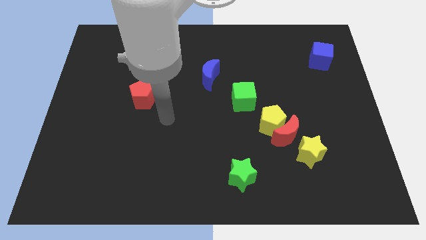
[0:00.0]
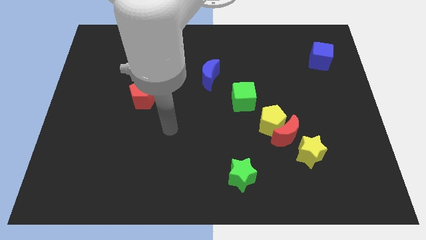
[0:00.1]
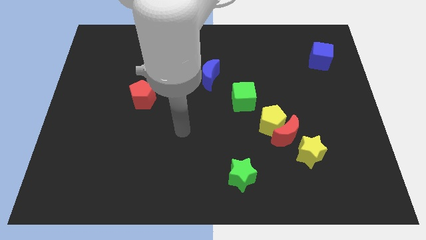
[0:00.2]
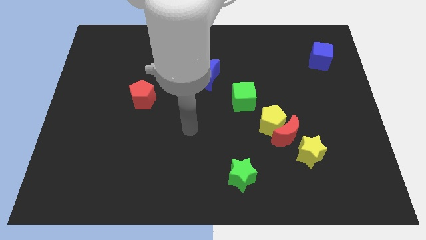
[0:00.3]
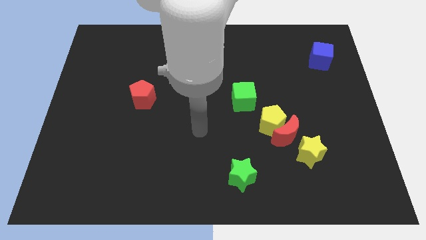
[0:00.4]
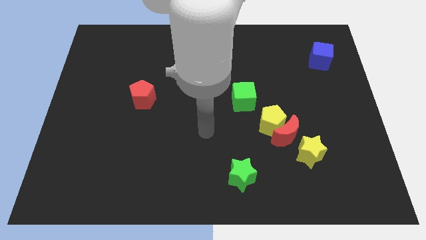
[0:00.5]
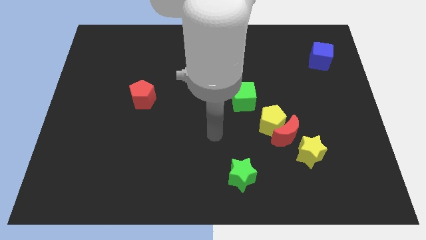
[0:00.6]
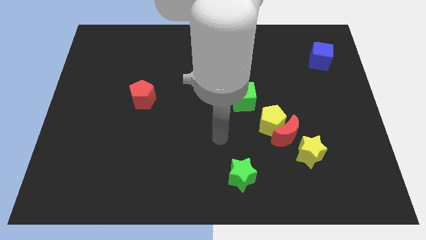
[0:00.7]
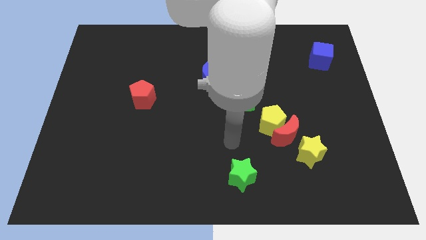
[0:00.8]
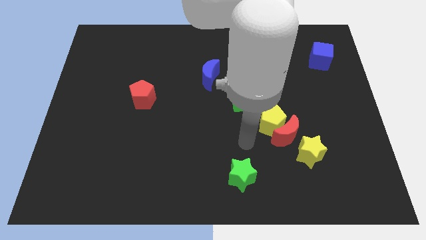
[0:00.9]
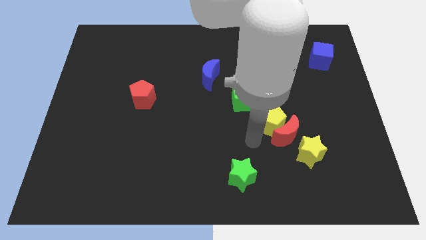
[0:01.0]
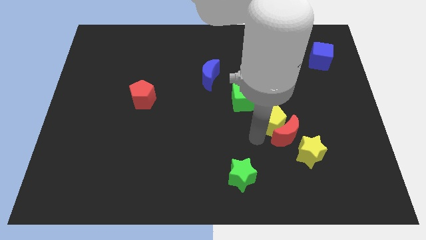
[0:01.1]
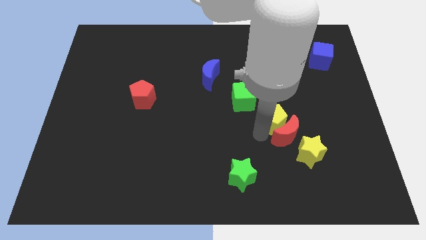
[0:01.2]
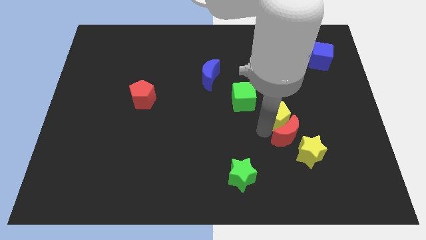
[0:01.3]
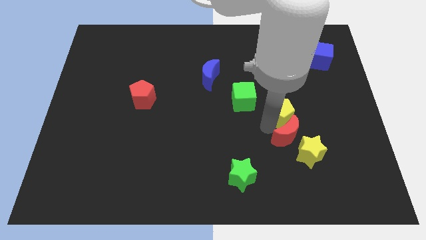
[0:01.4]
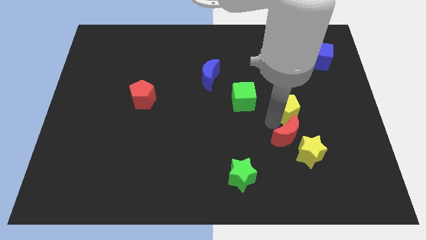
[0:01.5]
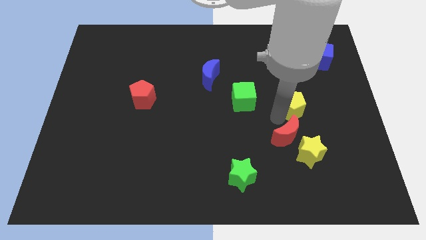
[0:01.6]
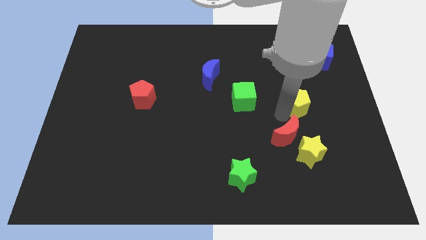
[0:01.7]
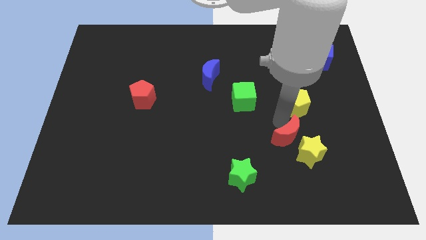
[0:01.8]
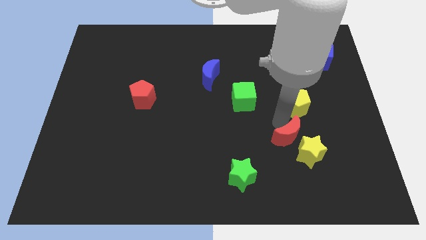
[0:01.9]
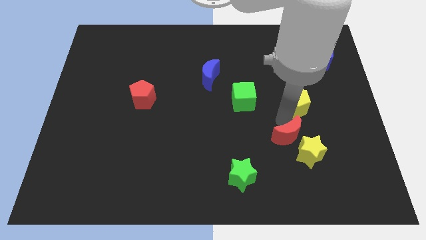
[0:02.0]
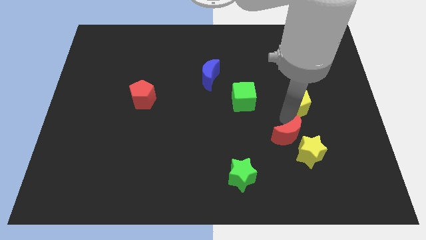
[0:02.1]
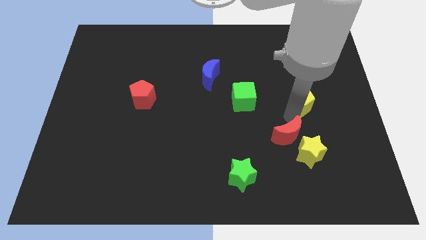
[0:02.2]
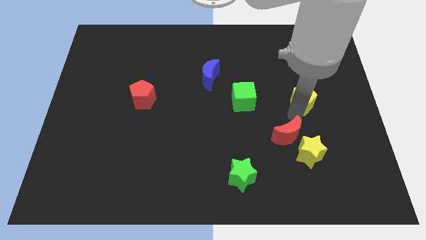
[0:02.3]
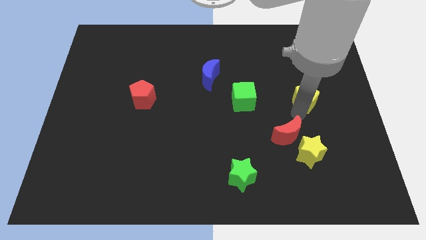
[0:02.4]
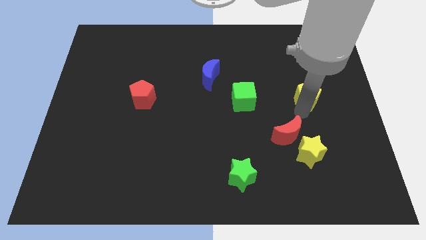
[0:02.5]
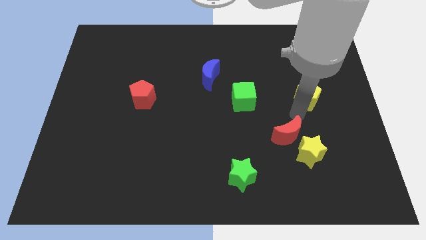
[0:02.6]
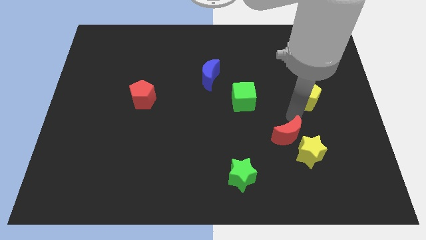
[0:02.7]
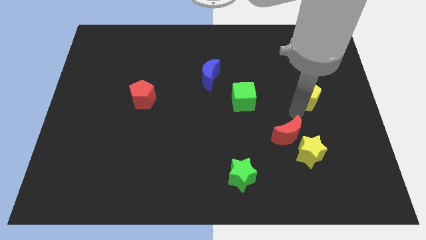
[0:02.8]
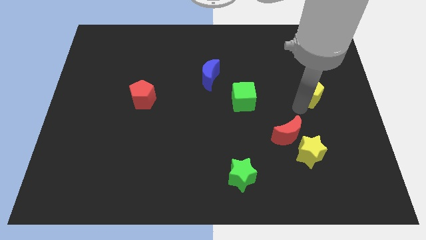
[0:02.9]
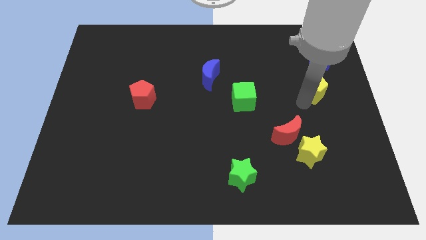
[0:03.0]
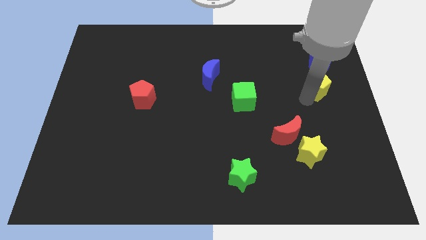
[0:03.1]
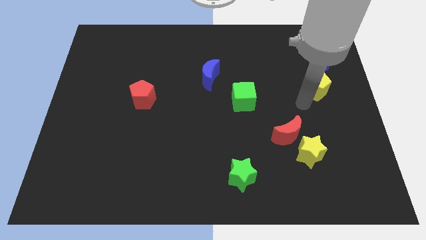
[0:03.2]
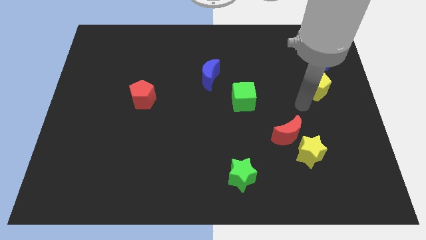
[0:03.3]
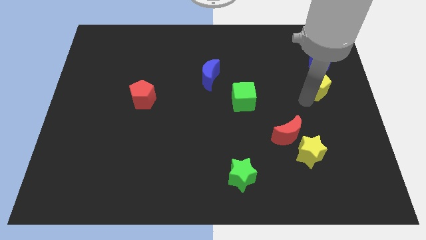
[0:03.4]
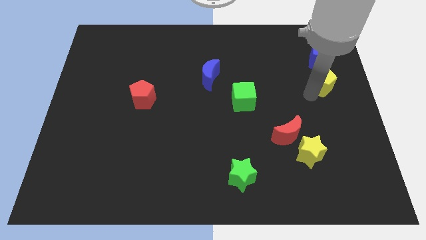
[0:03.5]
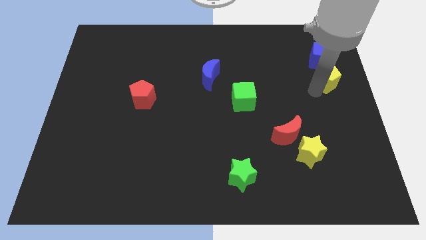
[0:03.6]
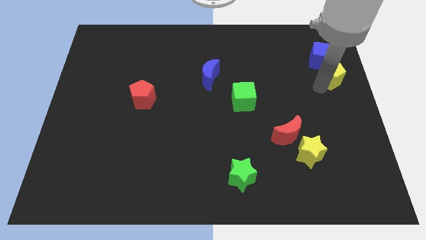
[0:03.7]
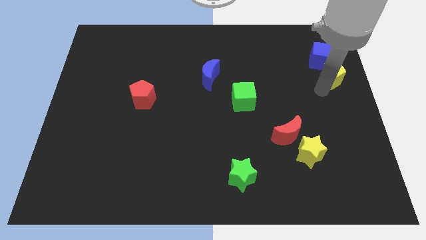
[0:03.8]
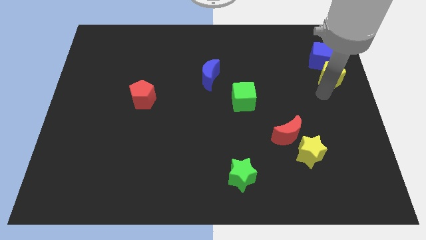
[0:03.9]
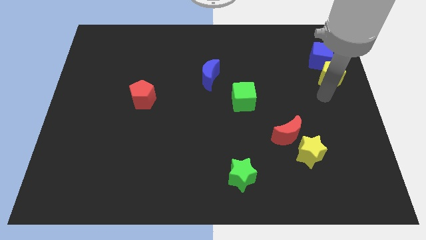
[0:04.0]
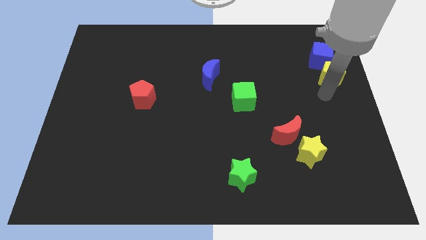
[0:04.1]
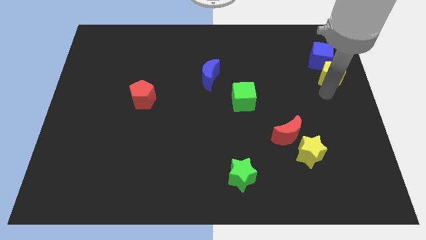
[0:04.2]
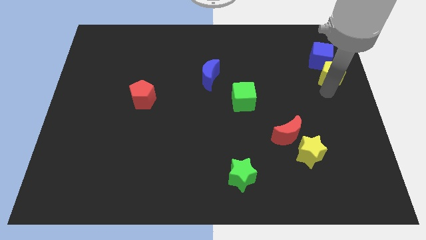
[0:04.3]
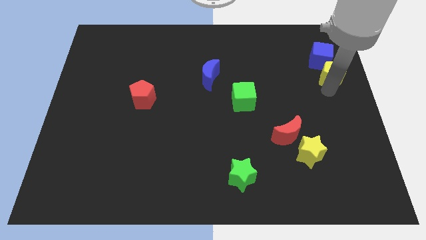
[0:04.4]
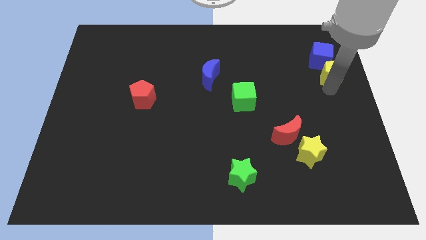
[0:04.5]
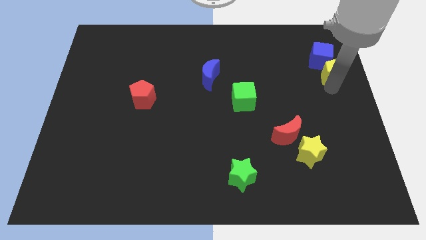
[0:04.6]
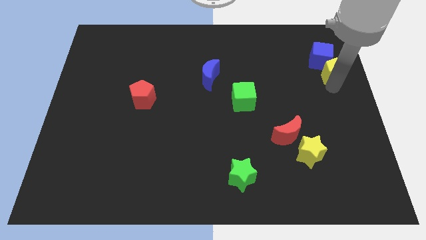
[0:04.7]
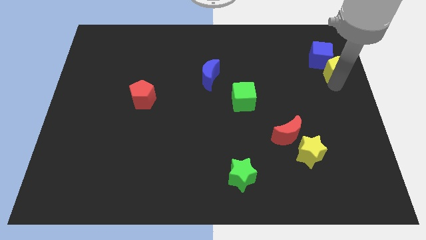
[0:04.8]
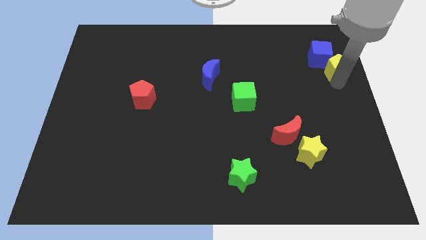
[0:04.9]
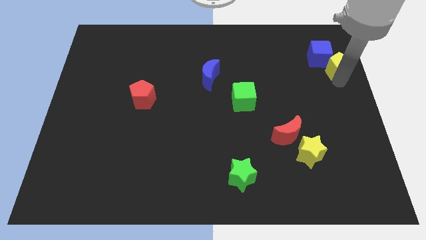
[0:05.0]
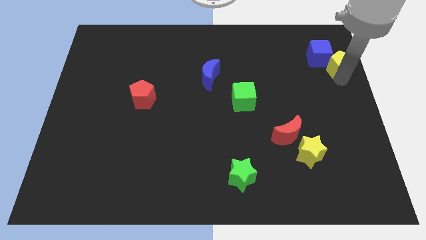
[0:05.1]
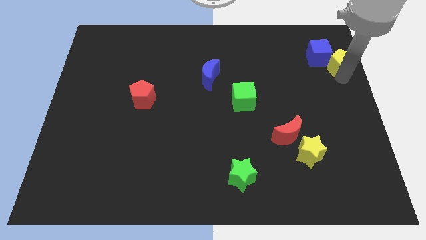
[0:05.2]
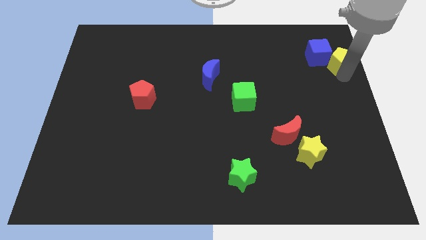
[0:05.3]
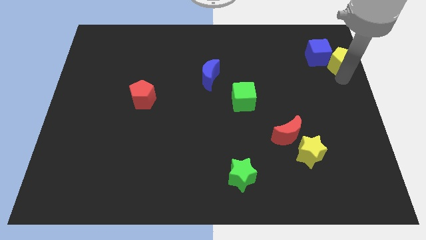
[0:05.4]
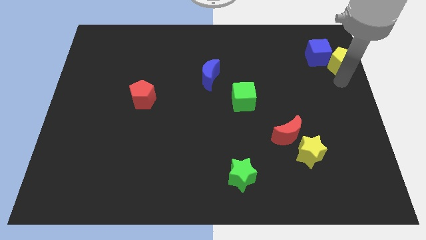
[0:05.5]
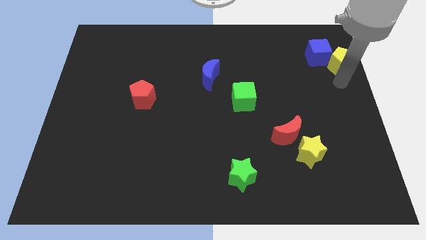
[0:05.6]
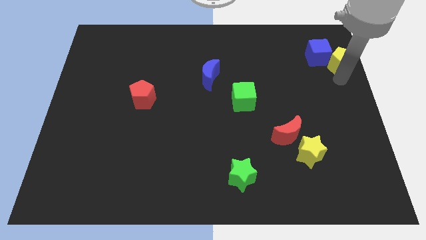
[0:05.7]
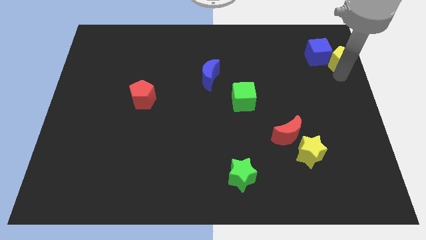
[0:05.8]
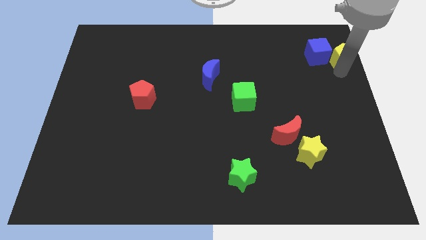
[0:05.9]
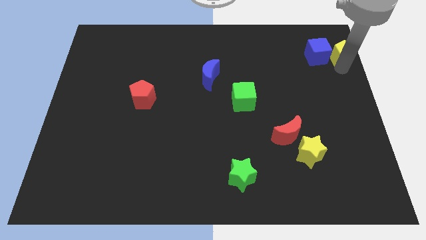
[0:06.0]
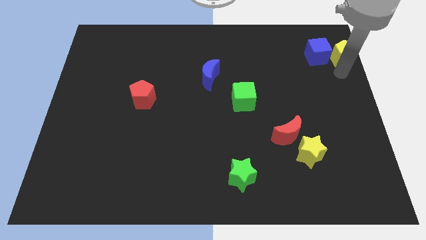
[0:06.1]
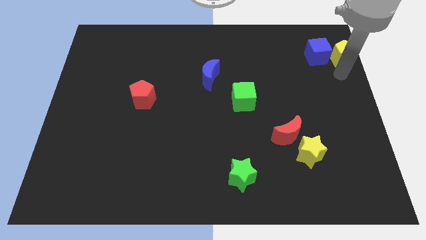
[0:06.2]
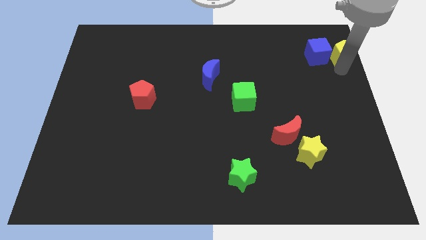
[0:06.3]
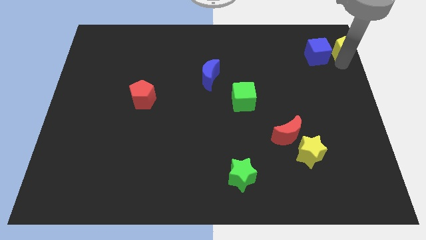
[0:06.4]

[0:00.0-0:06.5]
put the yellow pentagon to the top right of the board

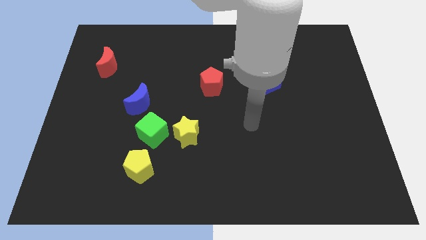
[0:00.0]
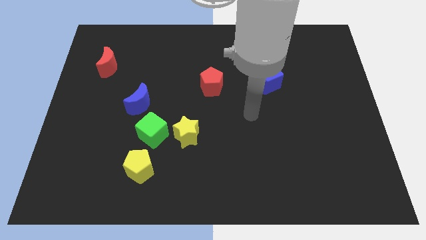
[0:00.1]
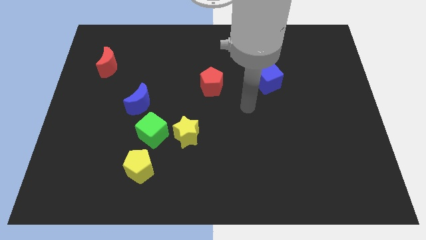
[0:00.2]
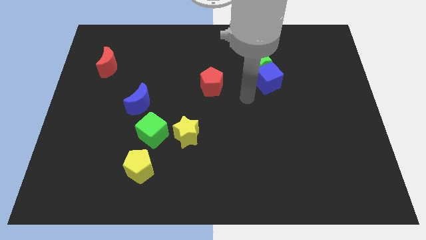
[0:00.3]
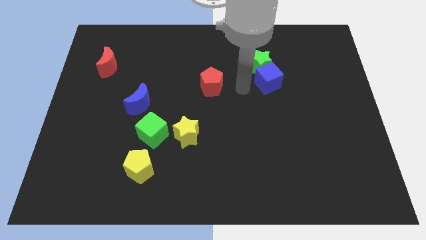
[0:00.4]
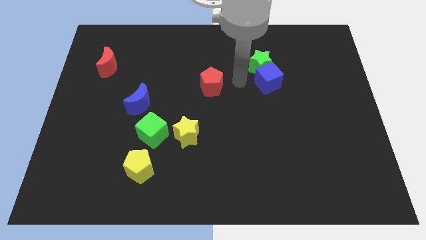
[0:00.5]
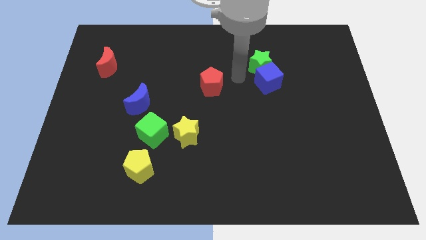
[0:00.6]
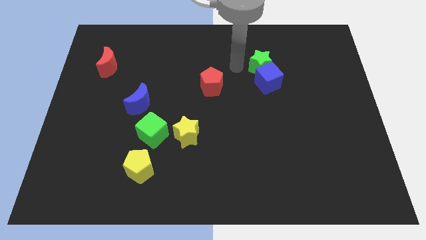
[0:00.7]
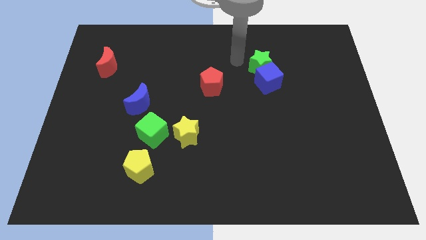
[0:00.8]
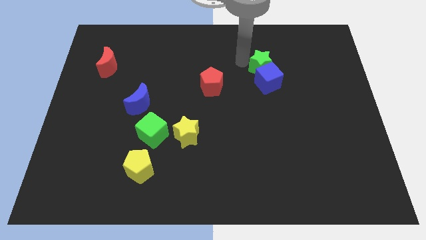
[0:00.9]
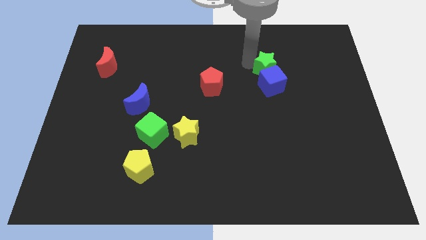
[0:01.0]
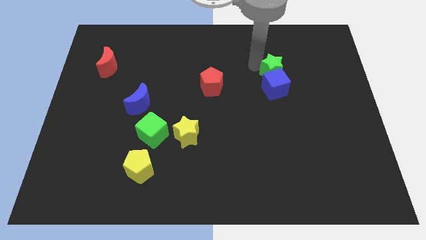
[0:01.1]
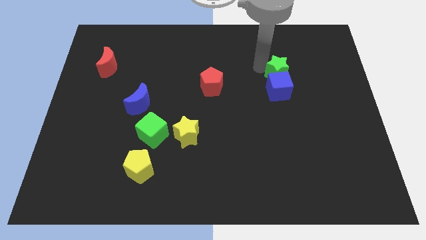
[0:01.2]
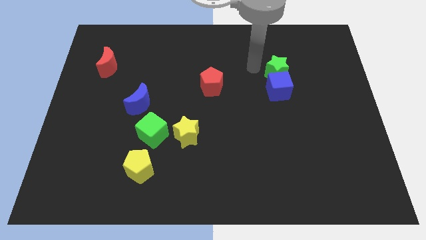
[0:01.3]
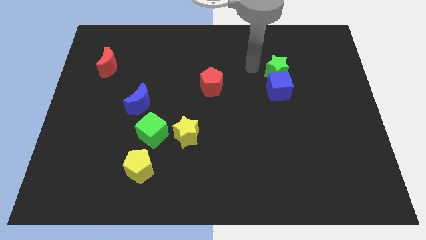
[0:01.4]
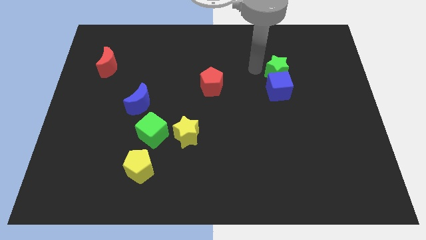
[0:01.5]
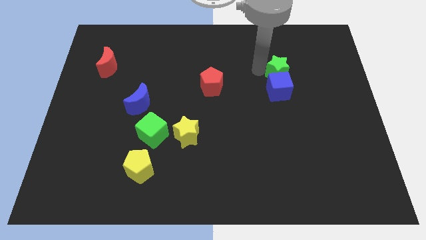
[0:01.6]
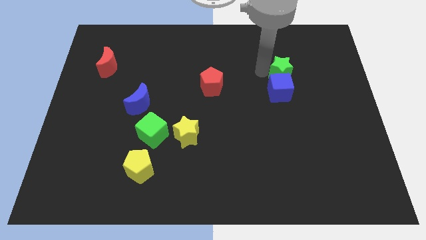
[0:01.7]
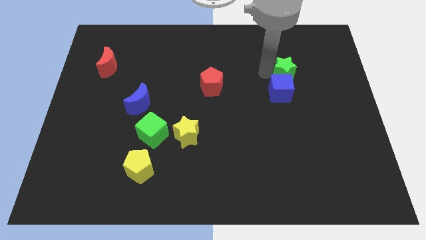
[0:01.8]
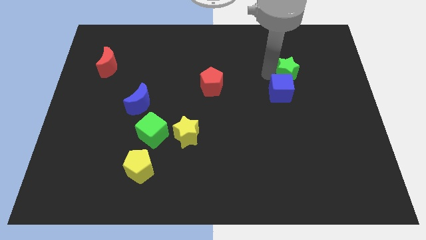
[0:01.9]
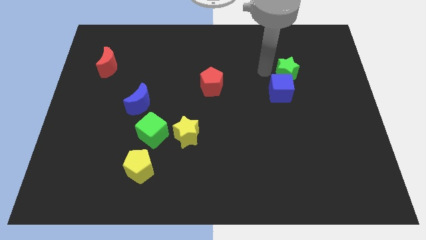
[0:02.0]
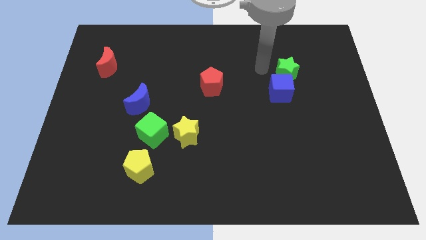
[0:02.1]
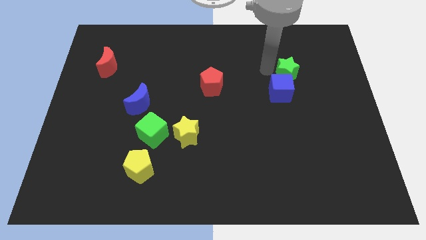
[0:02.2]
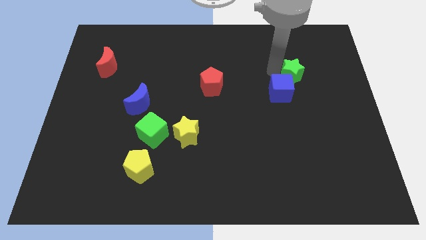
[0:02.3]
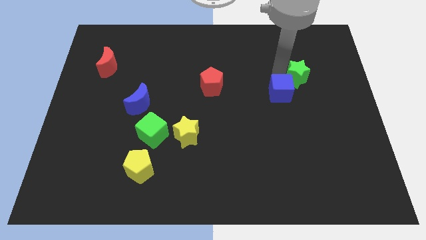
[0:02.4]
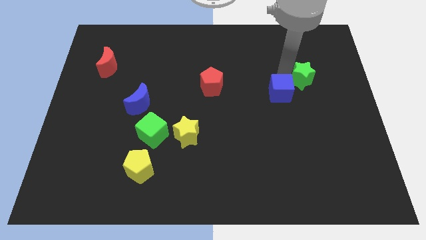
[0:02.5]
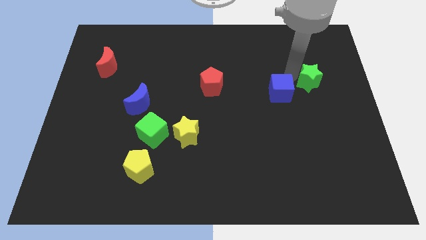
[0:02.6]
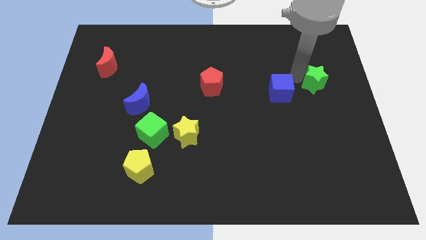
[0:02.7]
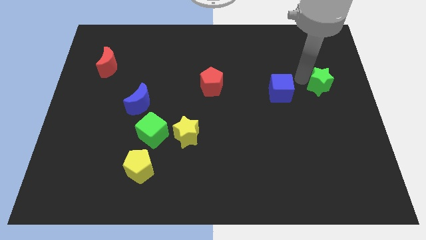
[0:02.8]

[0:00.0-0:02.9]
slide the green star to the center right
